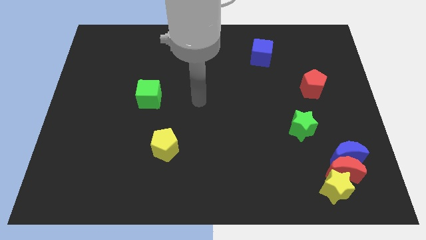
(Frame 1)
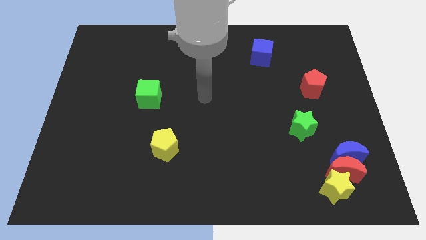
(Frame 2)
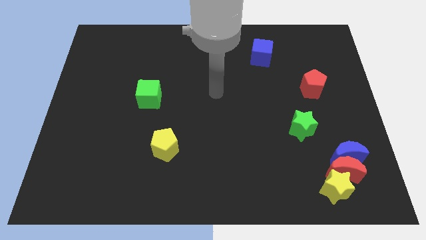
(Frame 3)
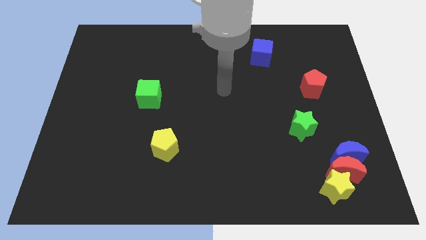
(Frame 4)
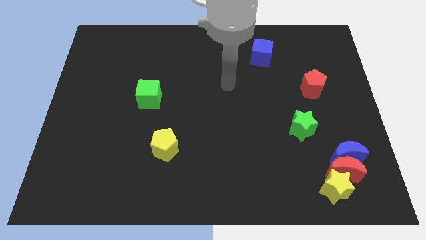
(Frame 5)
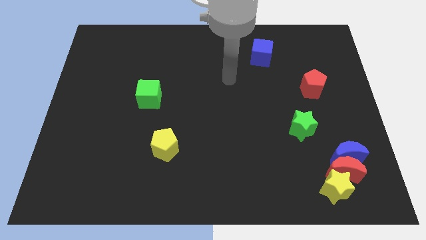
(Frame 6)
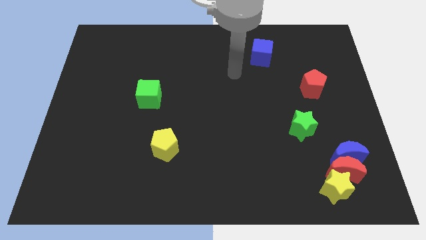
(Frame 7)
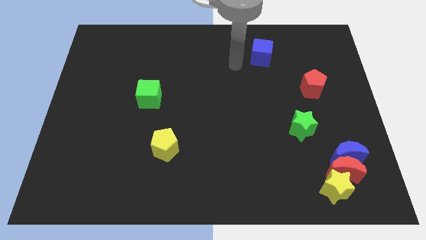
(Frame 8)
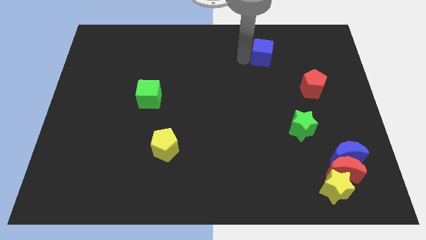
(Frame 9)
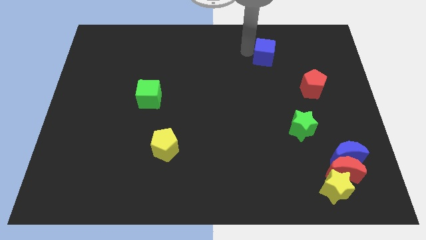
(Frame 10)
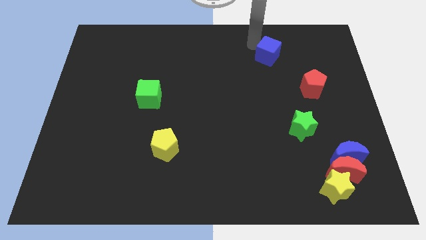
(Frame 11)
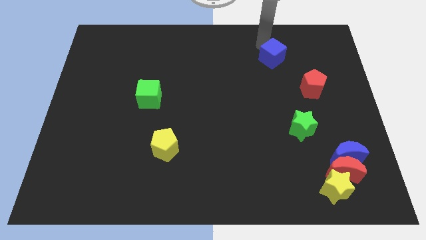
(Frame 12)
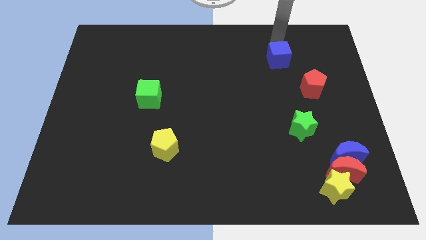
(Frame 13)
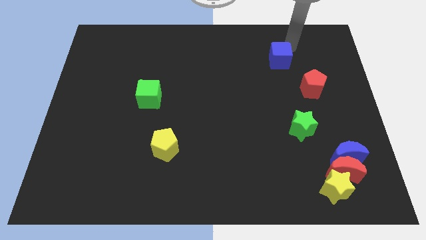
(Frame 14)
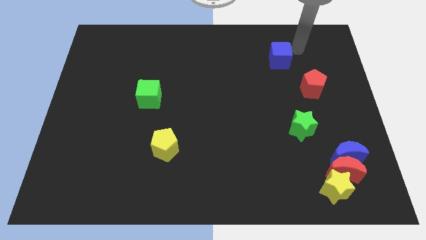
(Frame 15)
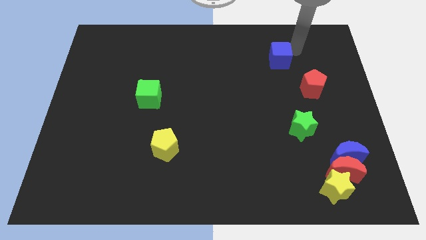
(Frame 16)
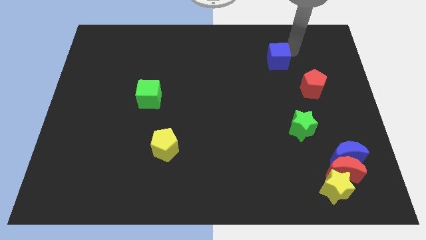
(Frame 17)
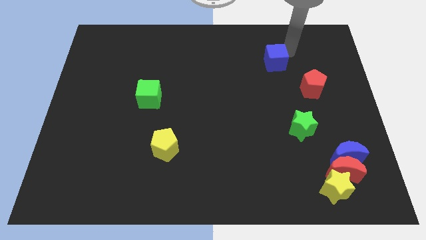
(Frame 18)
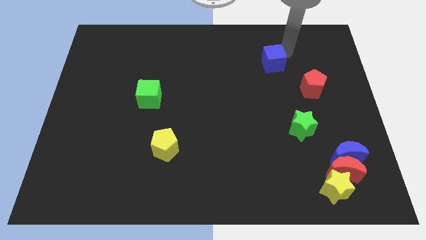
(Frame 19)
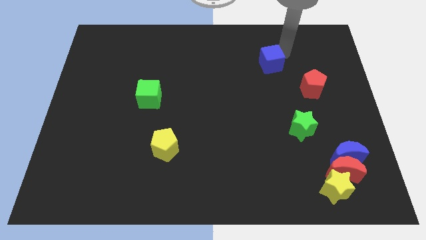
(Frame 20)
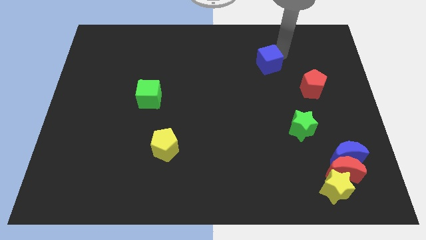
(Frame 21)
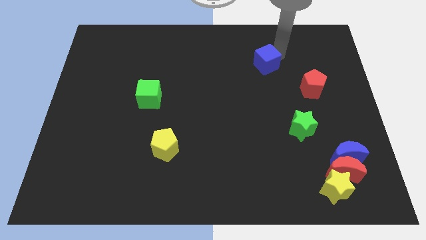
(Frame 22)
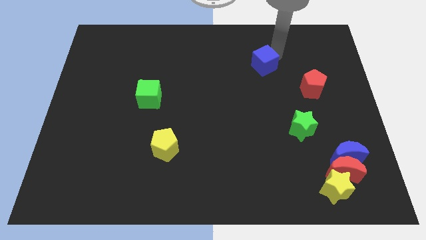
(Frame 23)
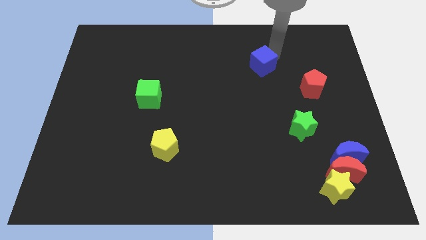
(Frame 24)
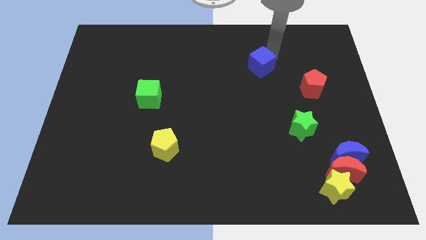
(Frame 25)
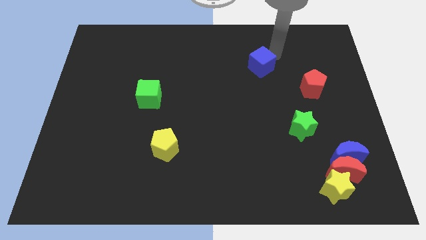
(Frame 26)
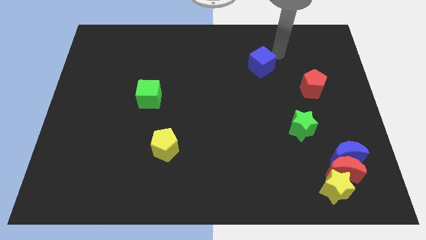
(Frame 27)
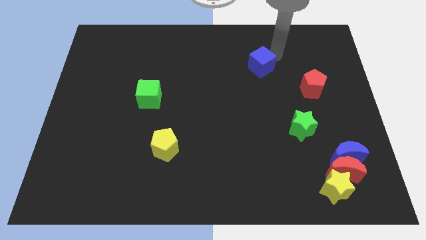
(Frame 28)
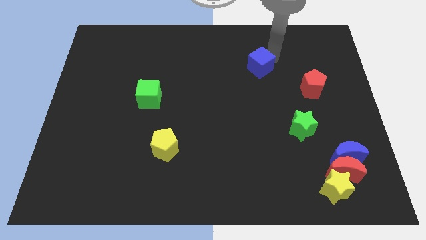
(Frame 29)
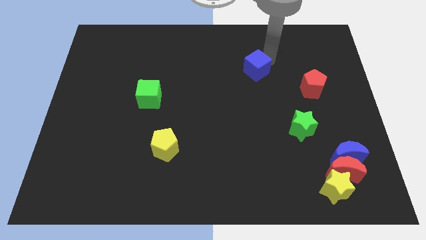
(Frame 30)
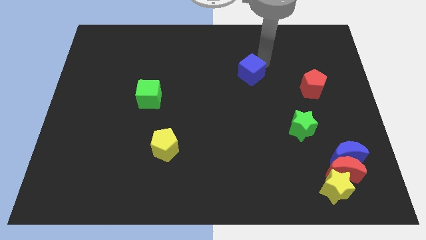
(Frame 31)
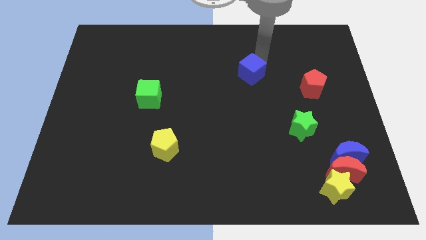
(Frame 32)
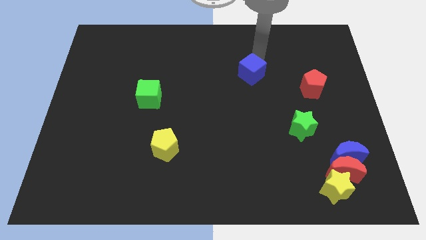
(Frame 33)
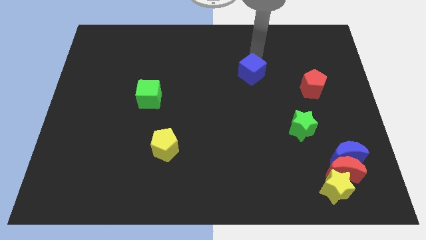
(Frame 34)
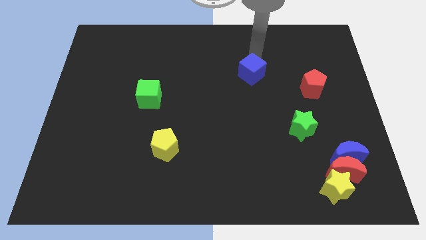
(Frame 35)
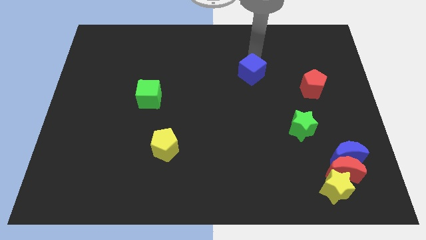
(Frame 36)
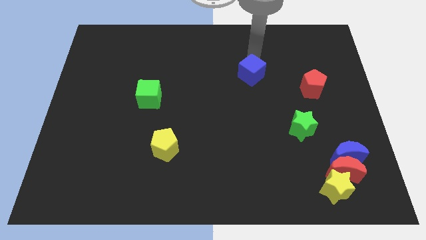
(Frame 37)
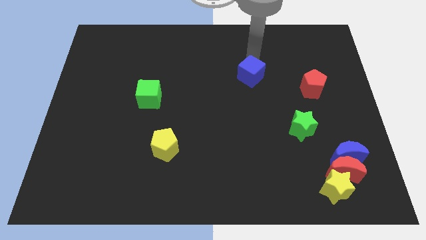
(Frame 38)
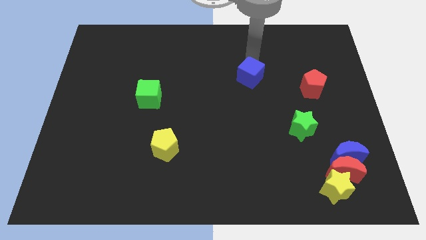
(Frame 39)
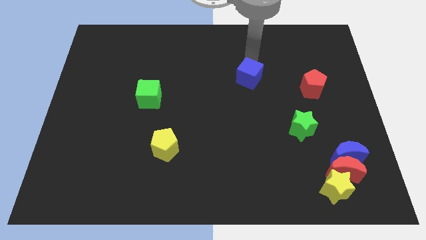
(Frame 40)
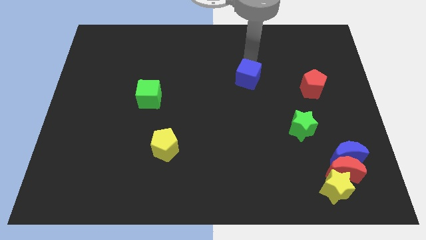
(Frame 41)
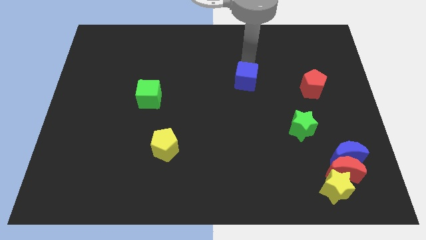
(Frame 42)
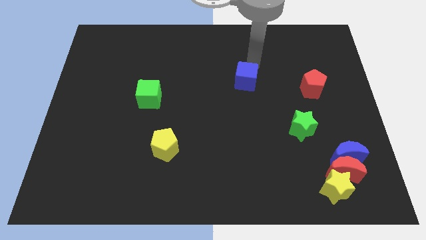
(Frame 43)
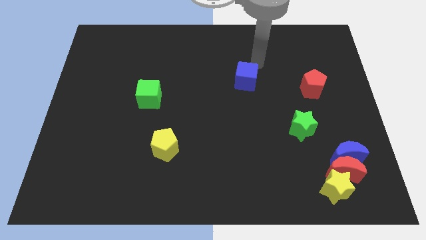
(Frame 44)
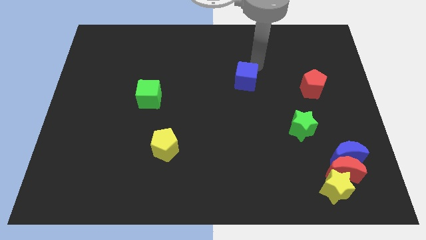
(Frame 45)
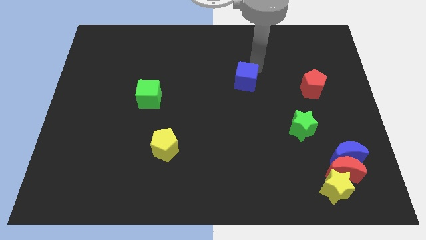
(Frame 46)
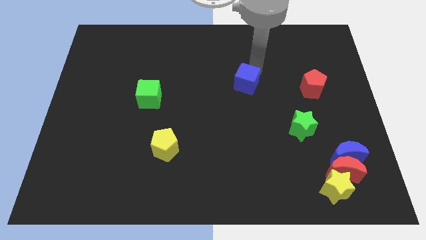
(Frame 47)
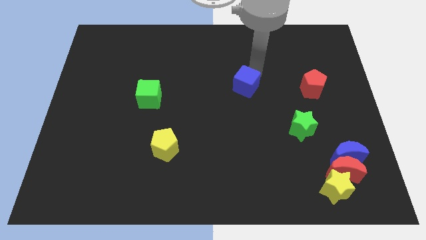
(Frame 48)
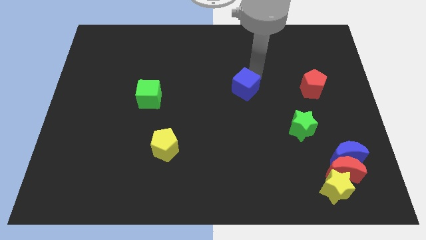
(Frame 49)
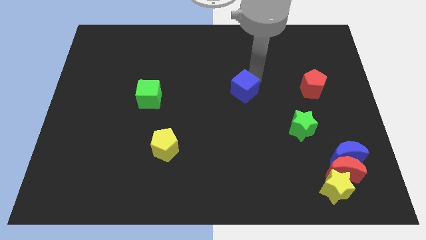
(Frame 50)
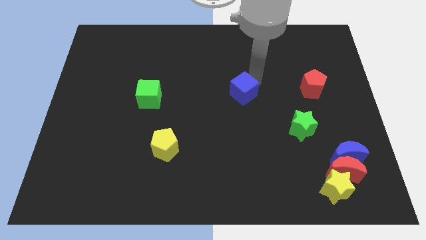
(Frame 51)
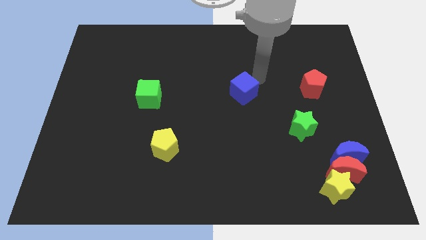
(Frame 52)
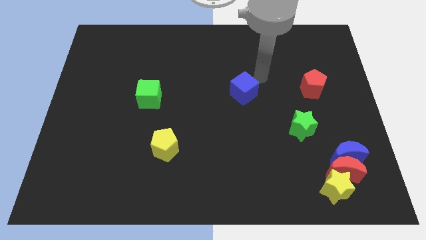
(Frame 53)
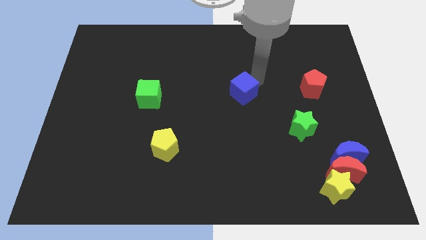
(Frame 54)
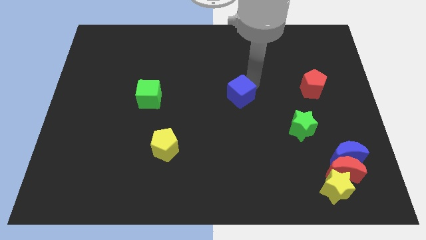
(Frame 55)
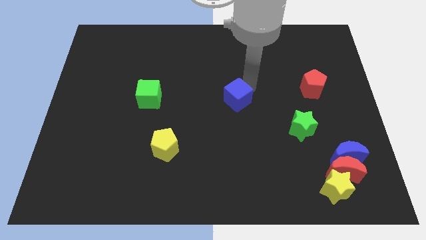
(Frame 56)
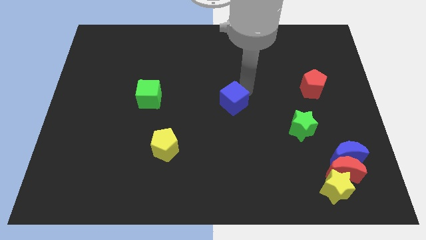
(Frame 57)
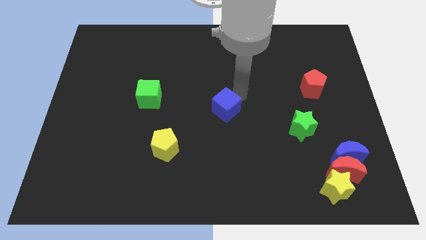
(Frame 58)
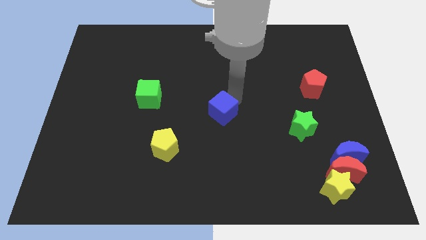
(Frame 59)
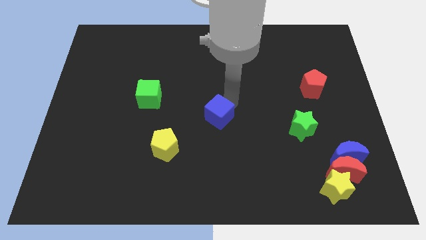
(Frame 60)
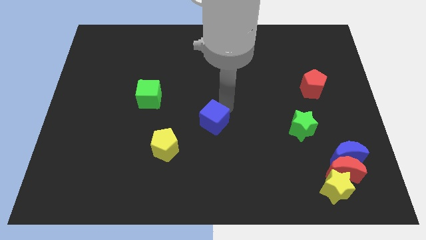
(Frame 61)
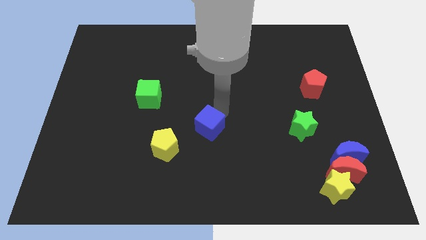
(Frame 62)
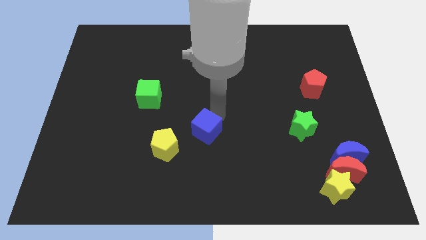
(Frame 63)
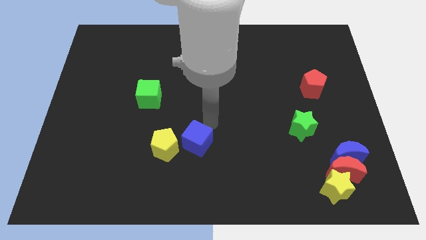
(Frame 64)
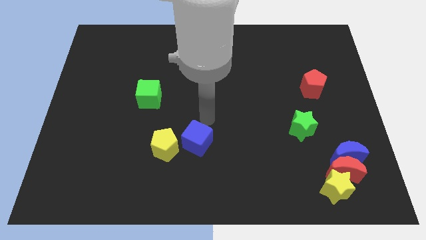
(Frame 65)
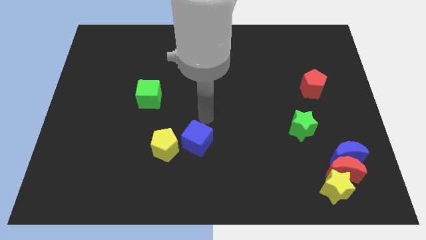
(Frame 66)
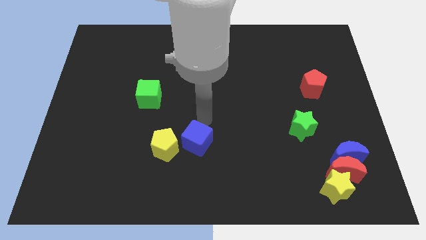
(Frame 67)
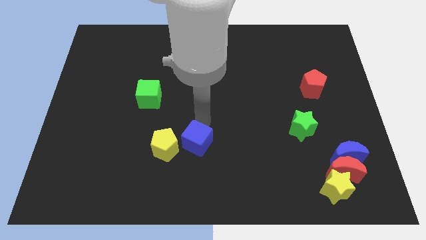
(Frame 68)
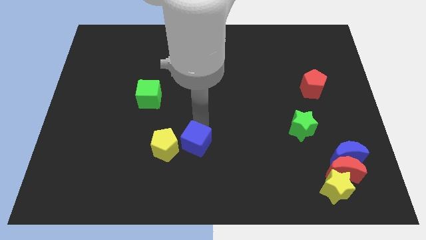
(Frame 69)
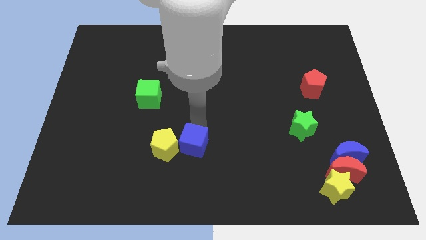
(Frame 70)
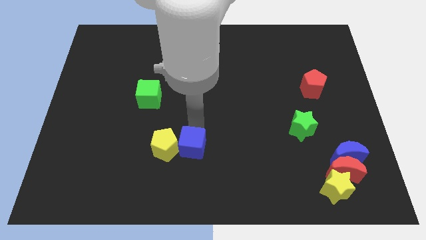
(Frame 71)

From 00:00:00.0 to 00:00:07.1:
move the blue cube to the bottom right of the yellow pentagon

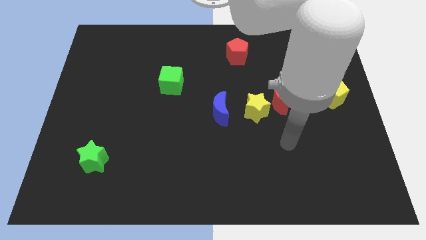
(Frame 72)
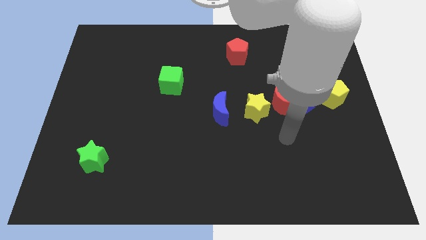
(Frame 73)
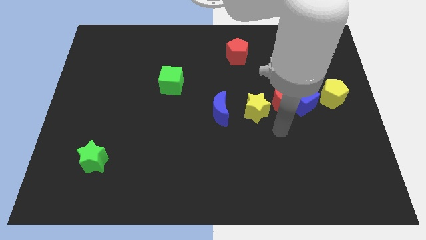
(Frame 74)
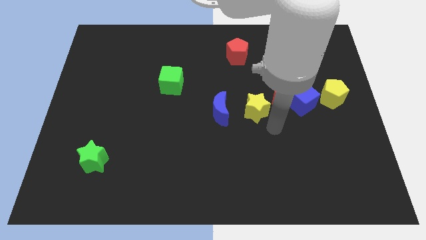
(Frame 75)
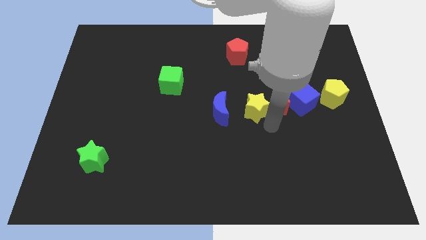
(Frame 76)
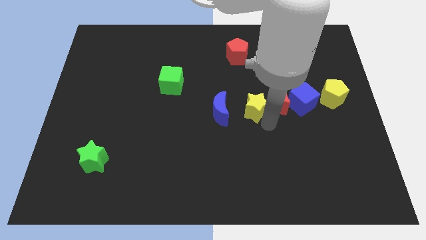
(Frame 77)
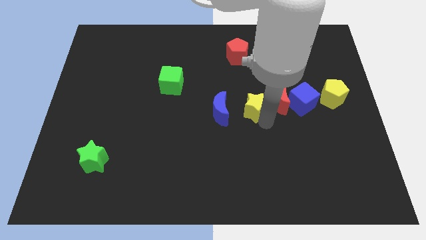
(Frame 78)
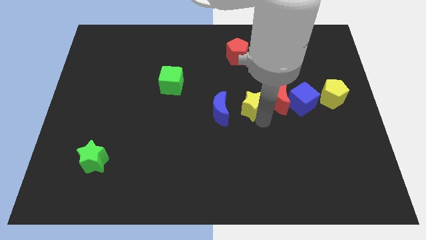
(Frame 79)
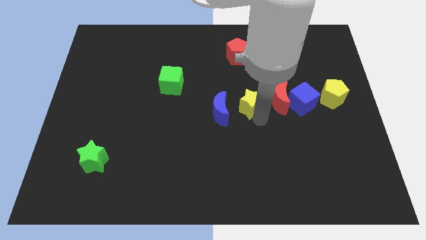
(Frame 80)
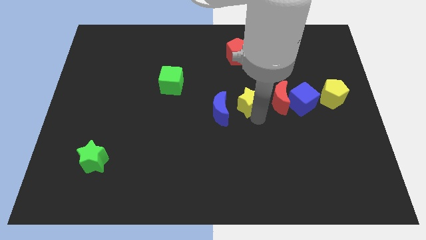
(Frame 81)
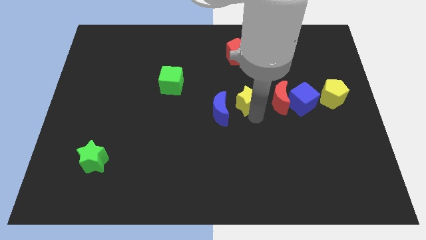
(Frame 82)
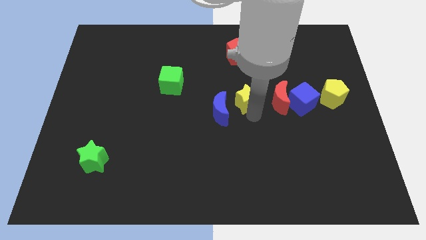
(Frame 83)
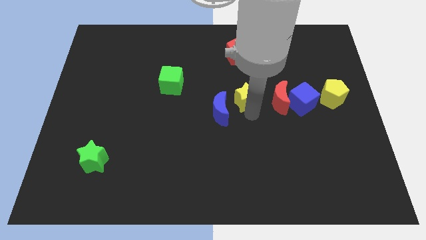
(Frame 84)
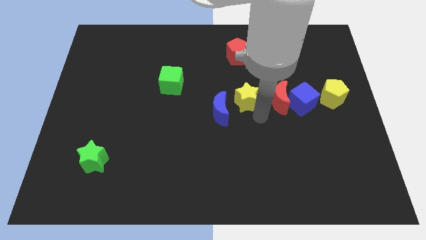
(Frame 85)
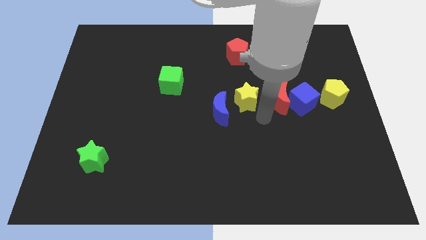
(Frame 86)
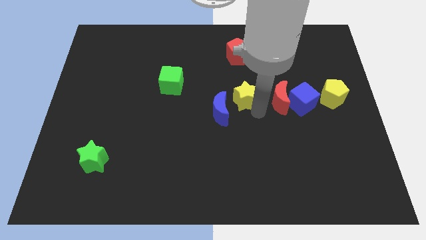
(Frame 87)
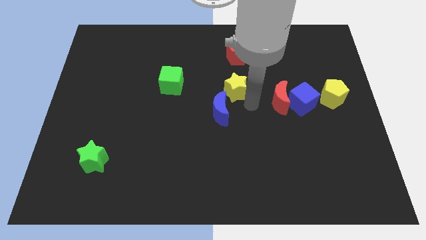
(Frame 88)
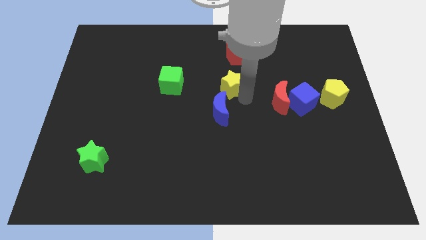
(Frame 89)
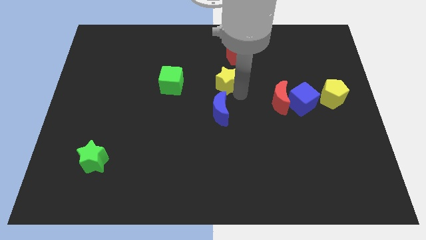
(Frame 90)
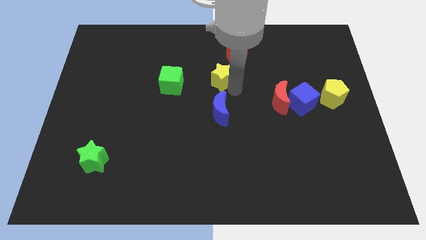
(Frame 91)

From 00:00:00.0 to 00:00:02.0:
push the yellow star diagonally down and to the left of the red pentagon
